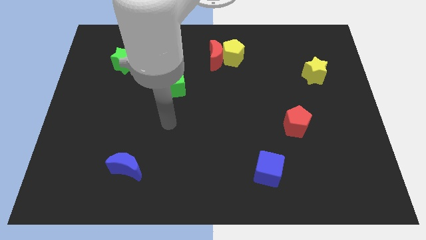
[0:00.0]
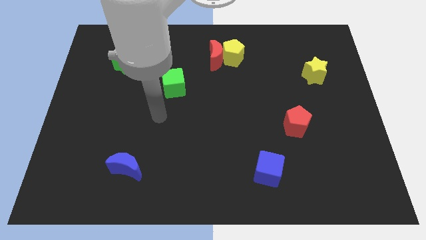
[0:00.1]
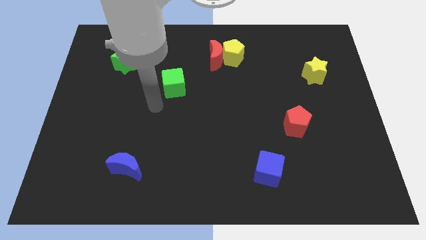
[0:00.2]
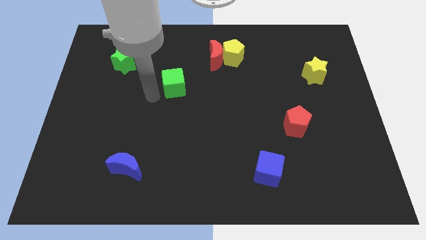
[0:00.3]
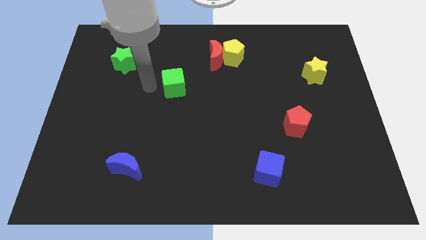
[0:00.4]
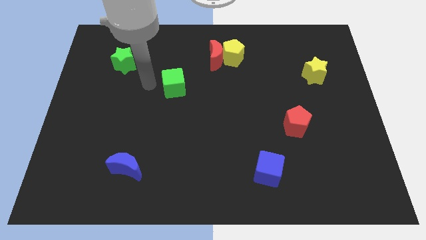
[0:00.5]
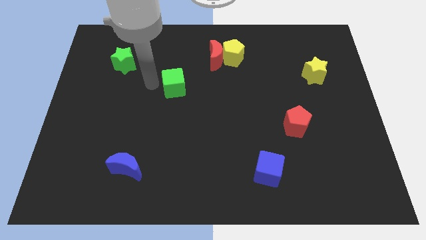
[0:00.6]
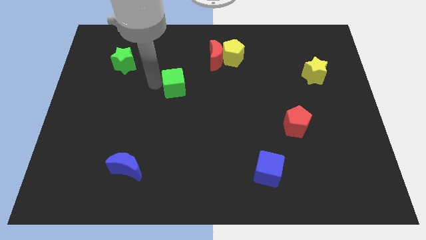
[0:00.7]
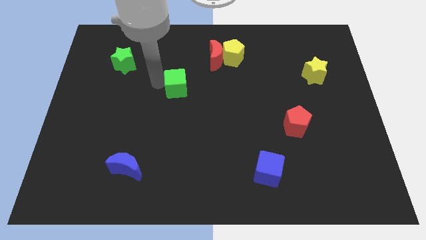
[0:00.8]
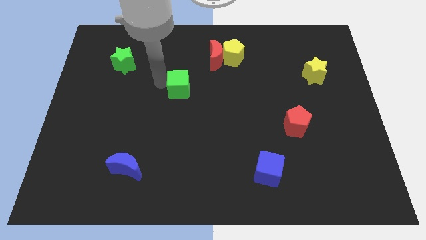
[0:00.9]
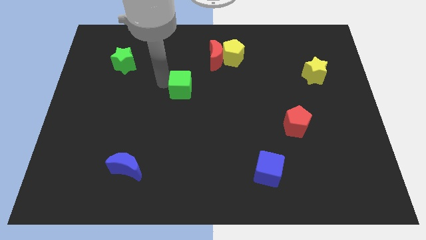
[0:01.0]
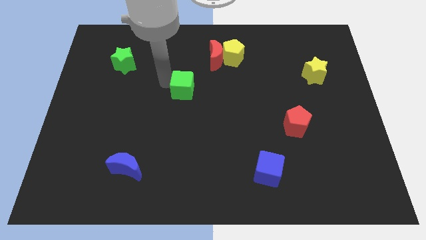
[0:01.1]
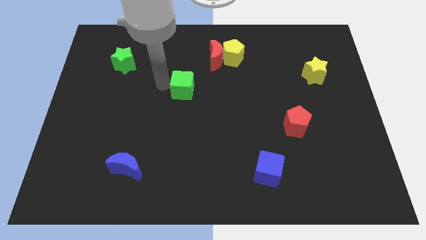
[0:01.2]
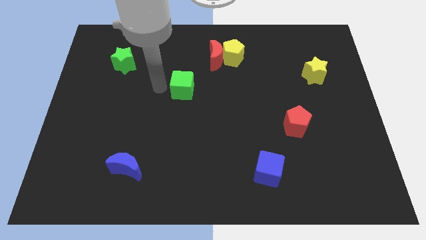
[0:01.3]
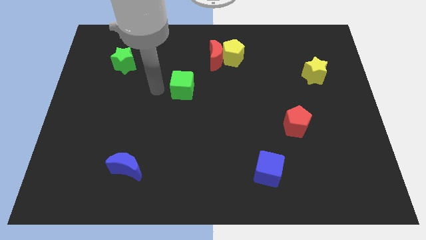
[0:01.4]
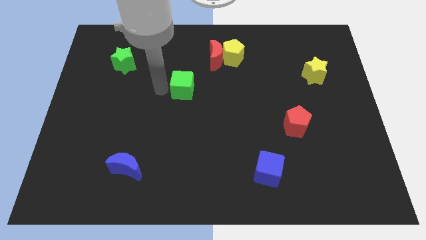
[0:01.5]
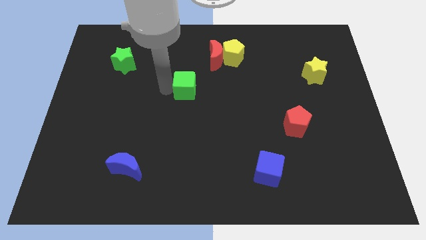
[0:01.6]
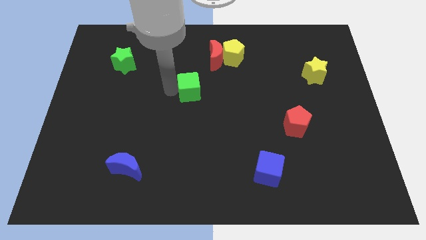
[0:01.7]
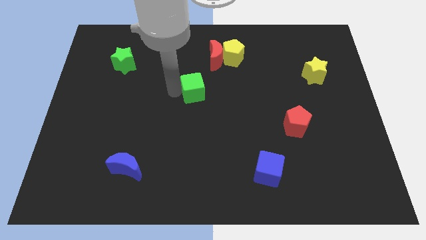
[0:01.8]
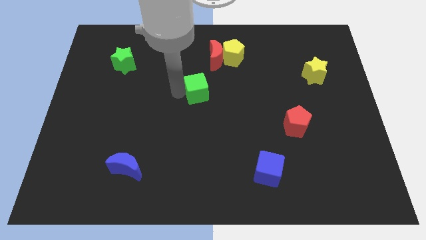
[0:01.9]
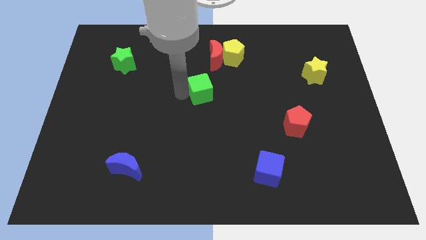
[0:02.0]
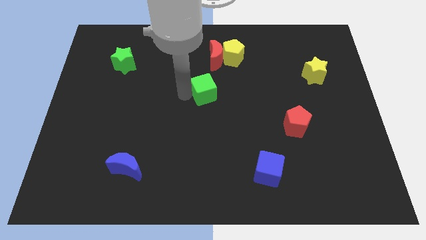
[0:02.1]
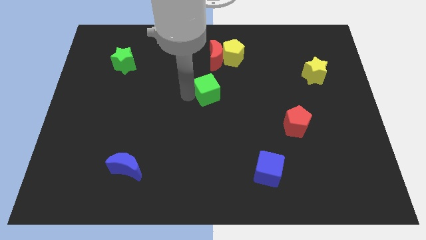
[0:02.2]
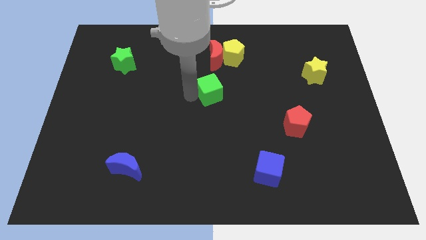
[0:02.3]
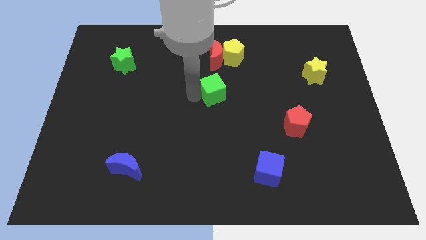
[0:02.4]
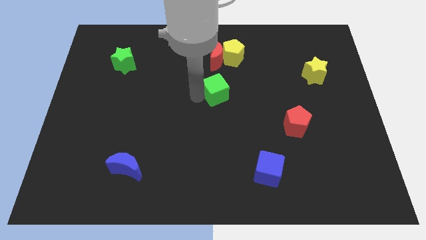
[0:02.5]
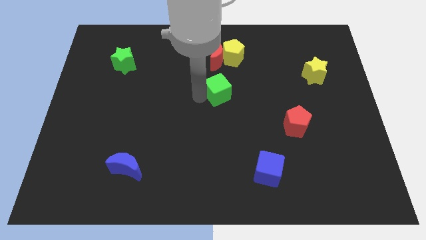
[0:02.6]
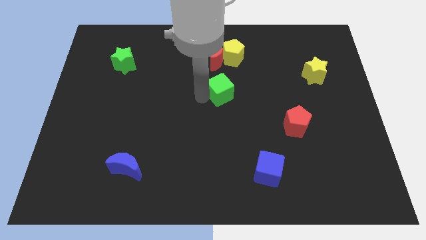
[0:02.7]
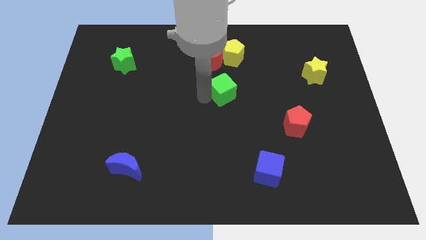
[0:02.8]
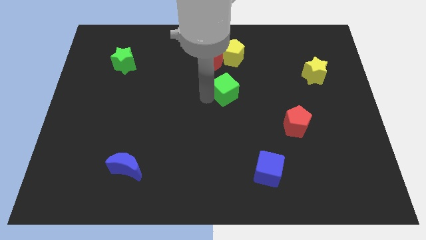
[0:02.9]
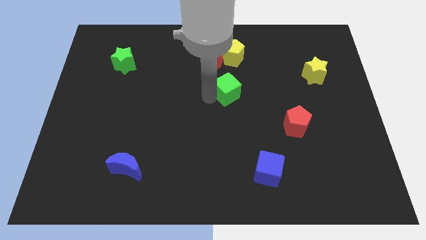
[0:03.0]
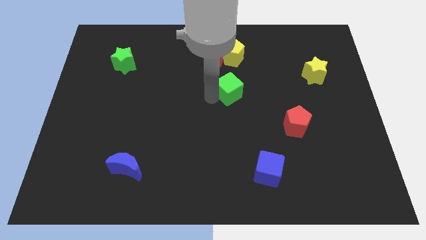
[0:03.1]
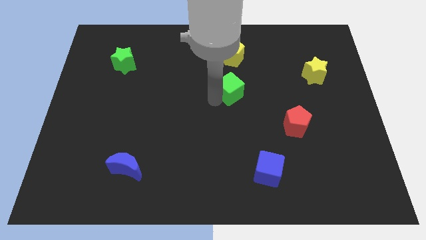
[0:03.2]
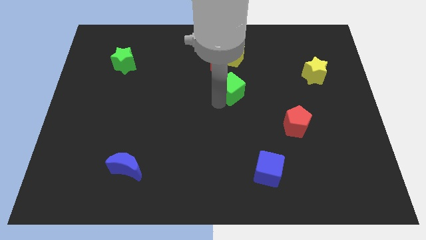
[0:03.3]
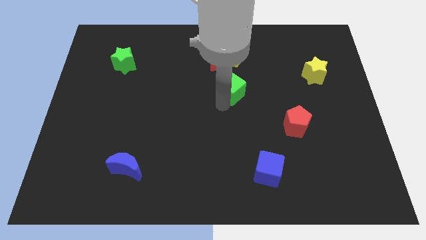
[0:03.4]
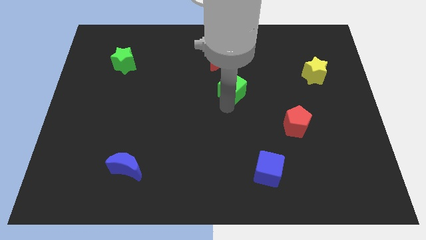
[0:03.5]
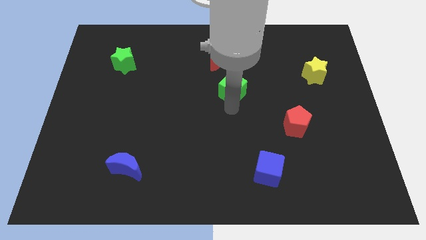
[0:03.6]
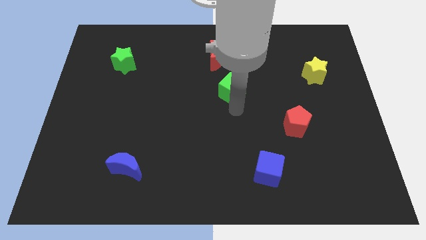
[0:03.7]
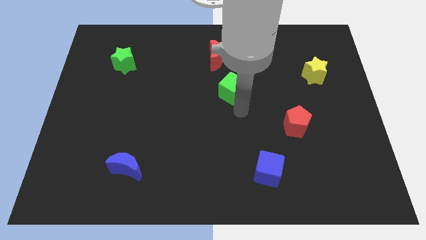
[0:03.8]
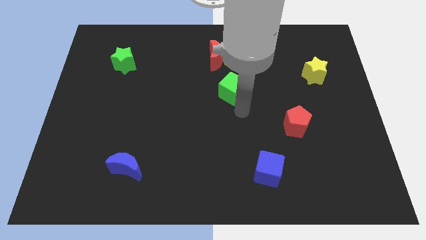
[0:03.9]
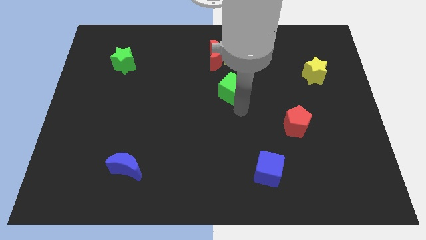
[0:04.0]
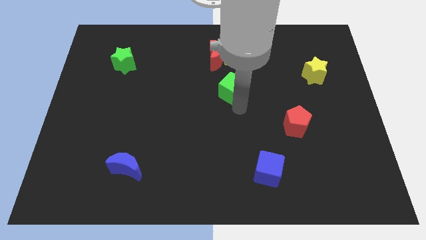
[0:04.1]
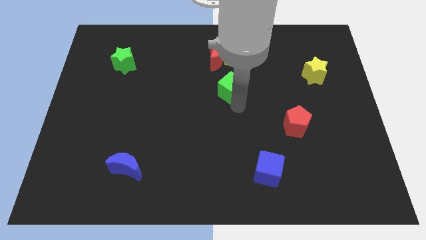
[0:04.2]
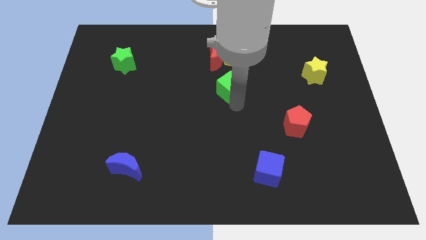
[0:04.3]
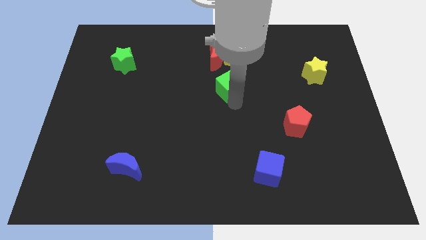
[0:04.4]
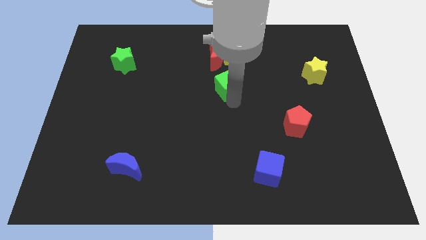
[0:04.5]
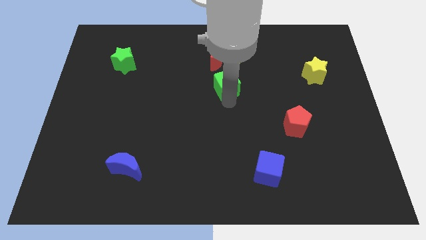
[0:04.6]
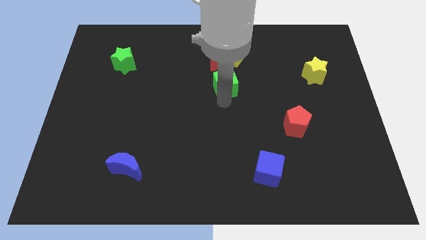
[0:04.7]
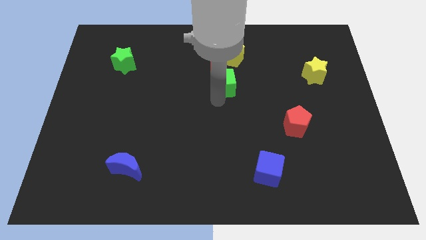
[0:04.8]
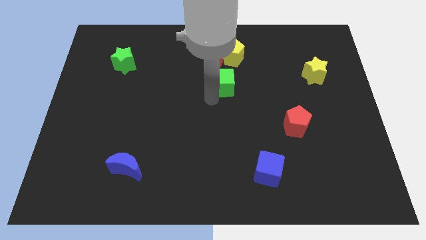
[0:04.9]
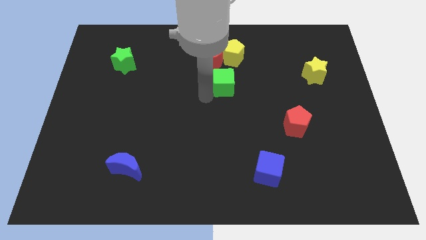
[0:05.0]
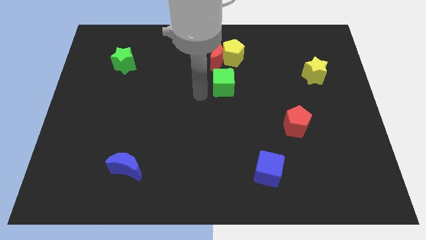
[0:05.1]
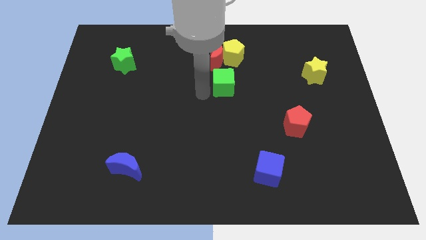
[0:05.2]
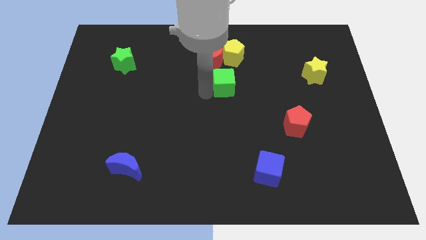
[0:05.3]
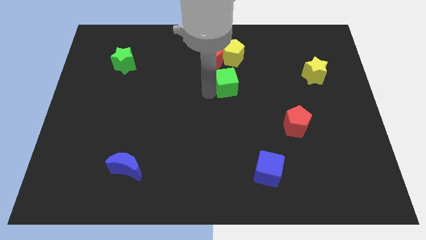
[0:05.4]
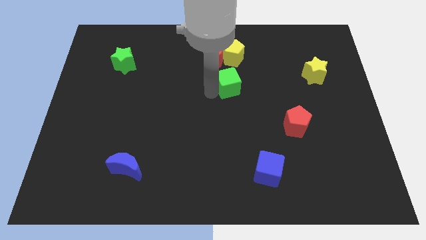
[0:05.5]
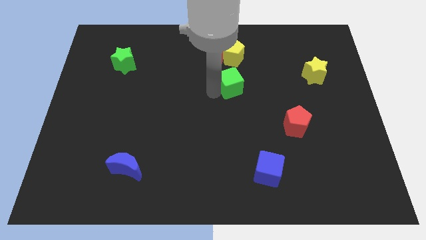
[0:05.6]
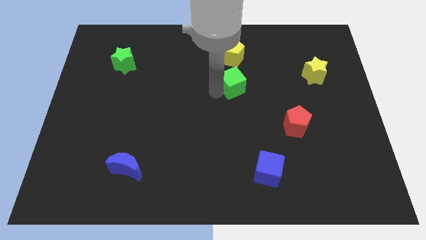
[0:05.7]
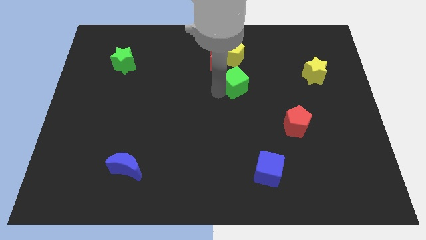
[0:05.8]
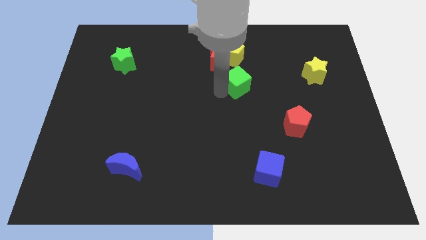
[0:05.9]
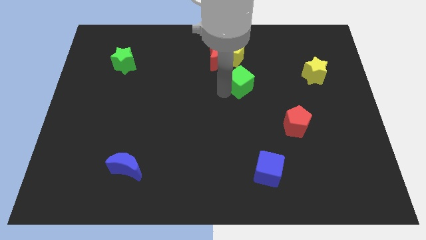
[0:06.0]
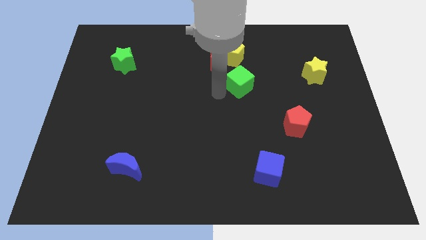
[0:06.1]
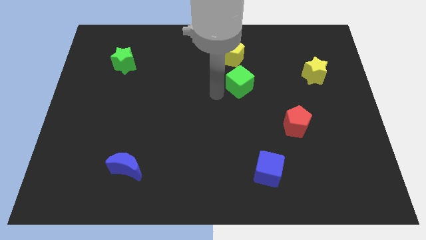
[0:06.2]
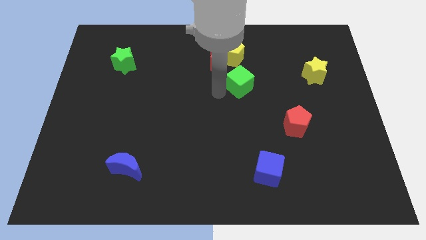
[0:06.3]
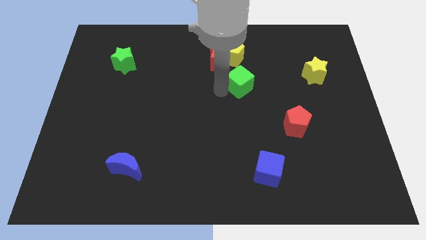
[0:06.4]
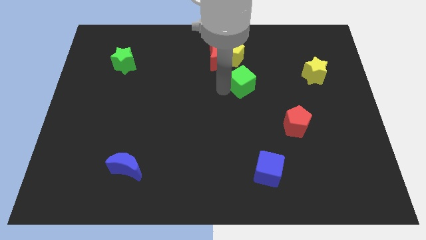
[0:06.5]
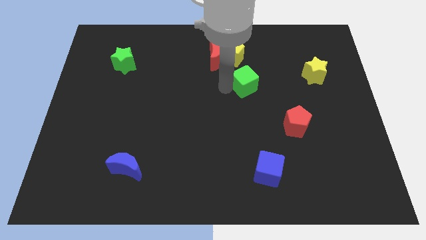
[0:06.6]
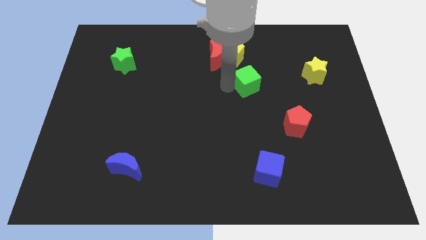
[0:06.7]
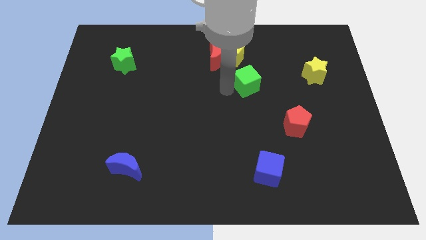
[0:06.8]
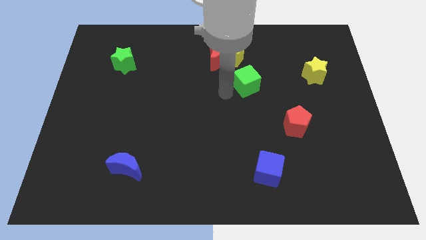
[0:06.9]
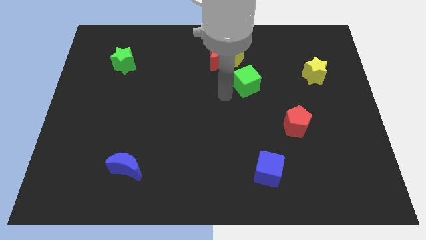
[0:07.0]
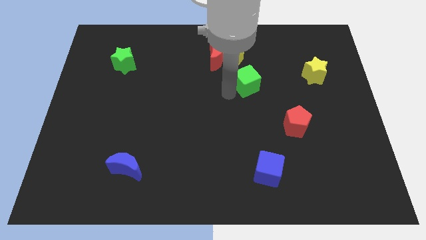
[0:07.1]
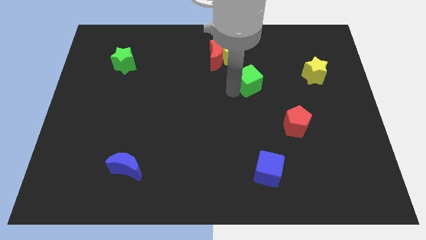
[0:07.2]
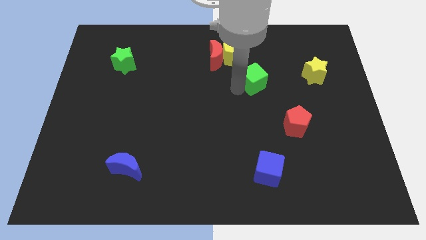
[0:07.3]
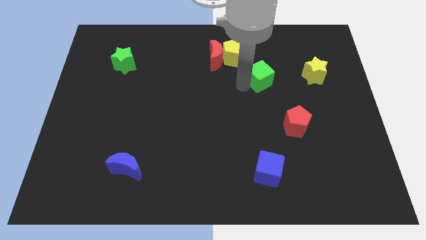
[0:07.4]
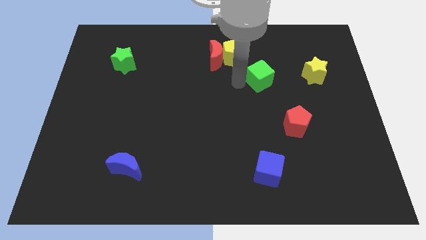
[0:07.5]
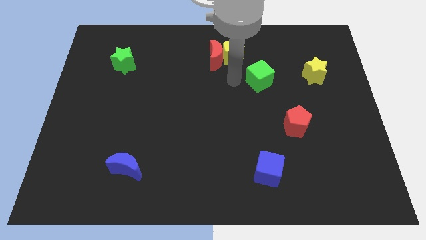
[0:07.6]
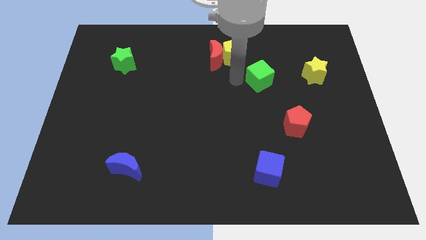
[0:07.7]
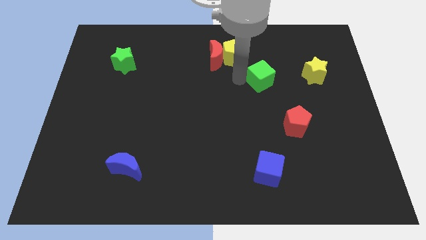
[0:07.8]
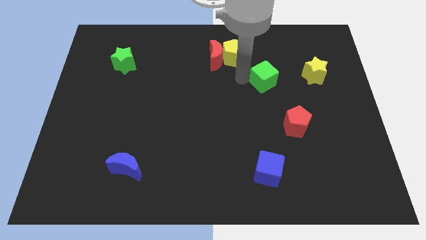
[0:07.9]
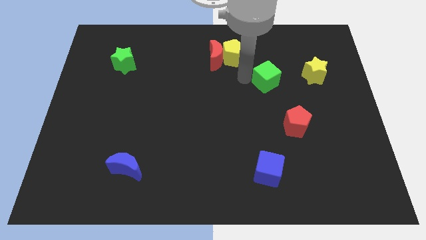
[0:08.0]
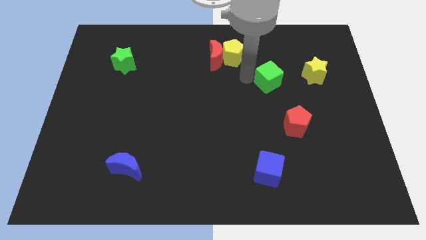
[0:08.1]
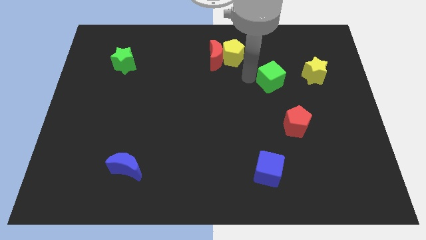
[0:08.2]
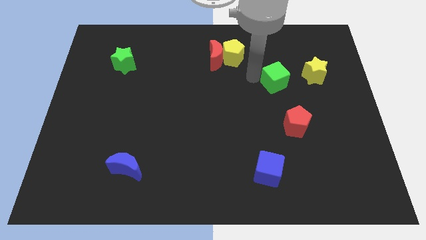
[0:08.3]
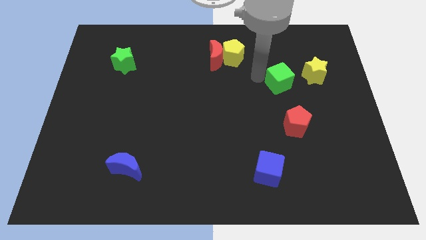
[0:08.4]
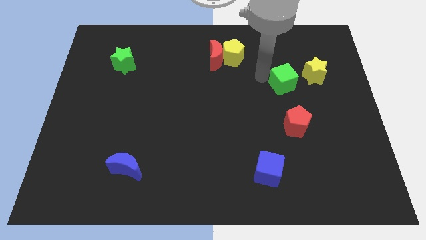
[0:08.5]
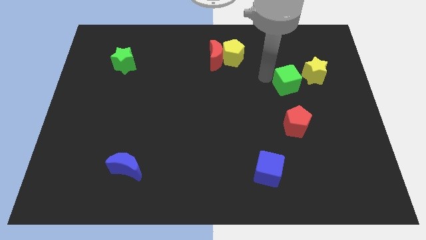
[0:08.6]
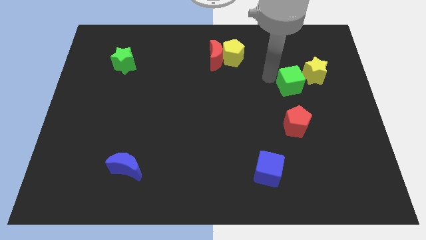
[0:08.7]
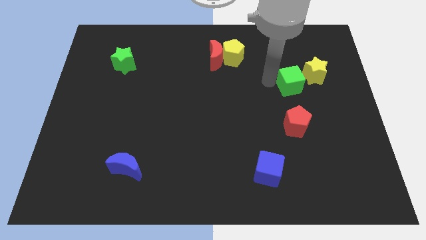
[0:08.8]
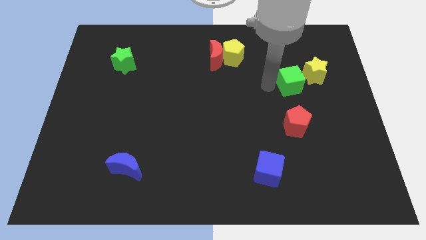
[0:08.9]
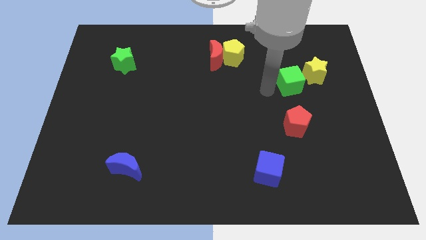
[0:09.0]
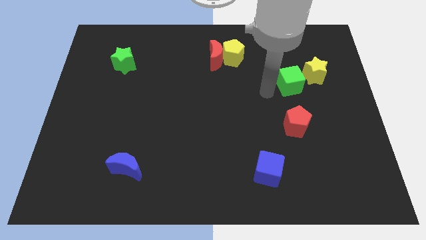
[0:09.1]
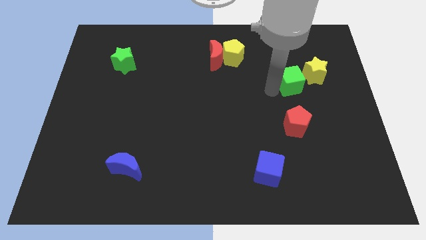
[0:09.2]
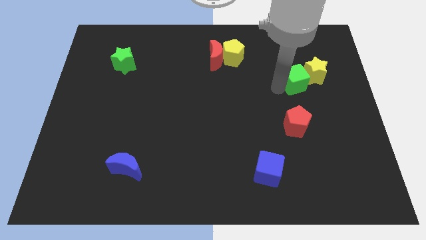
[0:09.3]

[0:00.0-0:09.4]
slide the green cube next to the yellow star
